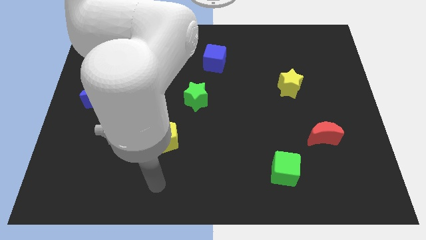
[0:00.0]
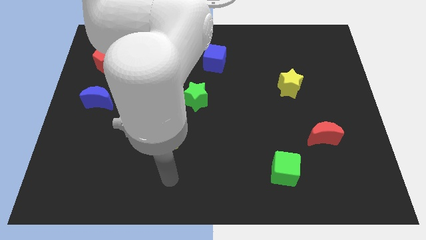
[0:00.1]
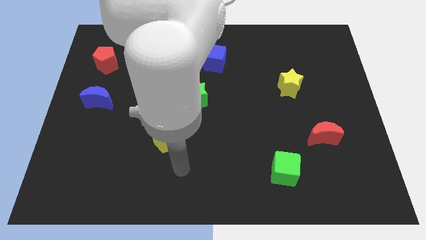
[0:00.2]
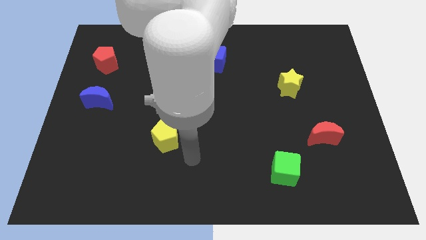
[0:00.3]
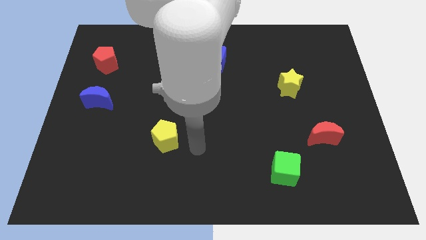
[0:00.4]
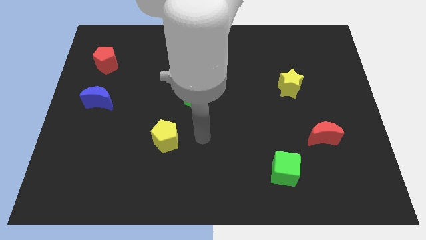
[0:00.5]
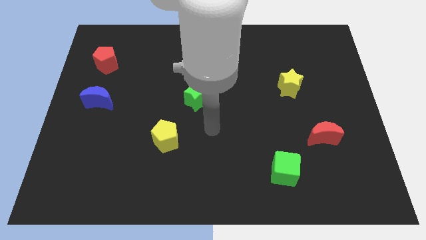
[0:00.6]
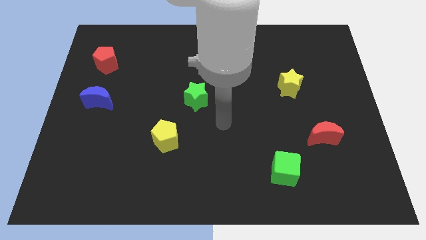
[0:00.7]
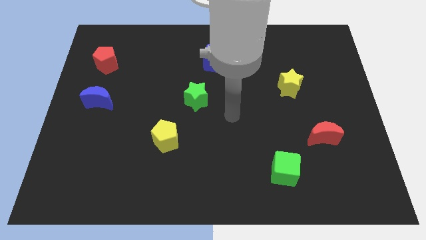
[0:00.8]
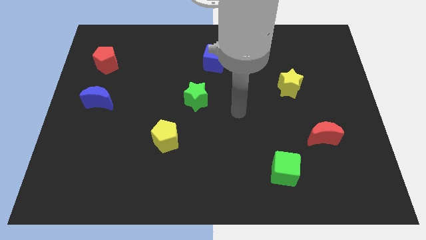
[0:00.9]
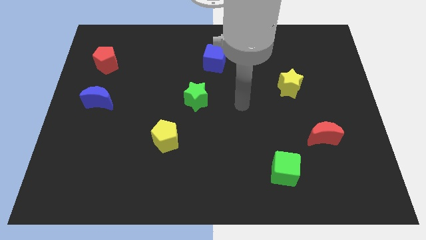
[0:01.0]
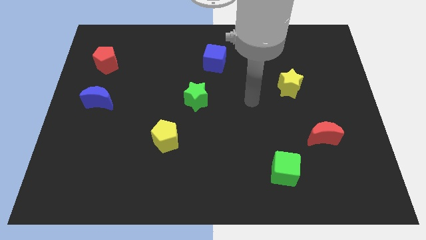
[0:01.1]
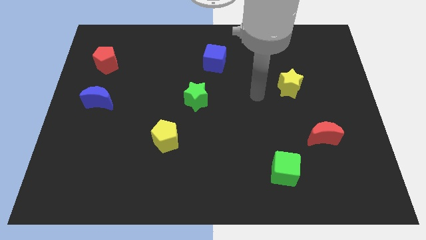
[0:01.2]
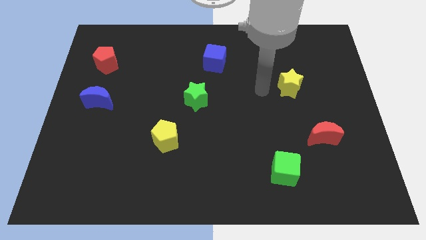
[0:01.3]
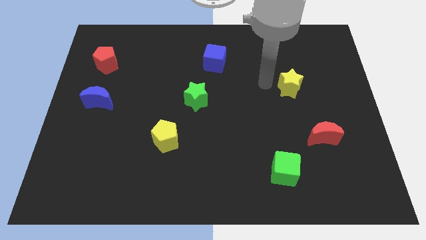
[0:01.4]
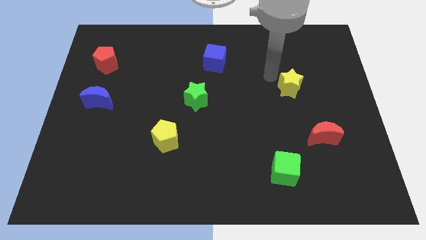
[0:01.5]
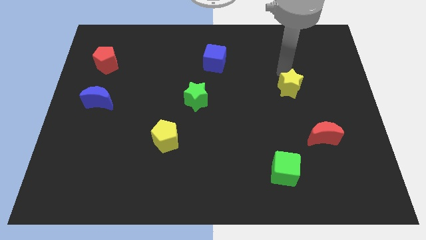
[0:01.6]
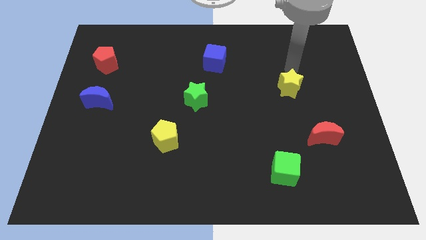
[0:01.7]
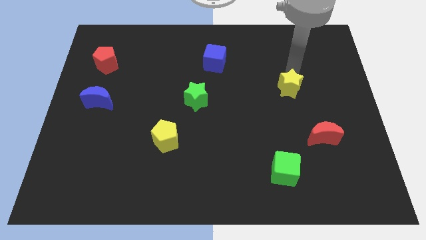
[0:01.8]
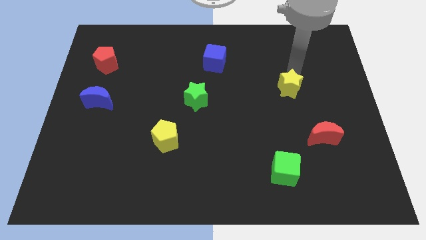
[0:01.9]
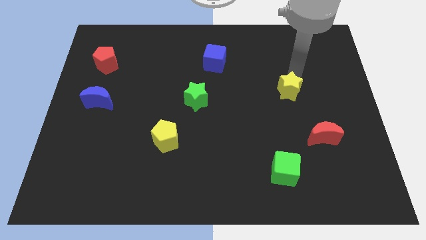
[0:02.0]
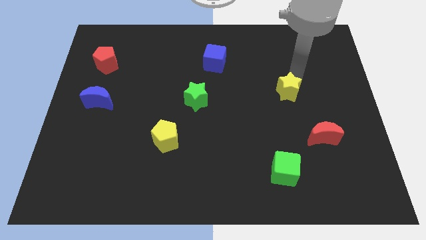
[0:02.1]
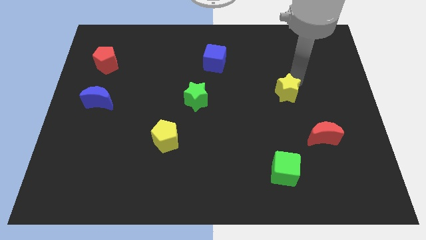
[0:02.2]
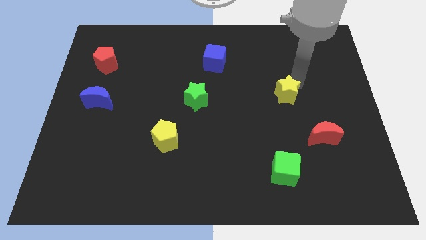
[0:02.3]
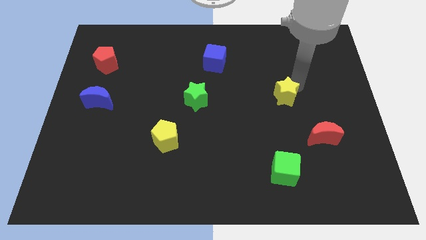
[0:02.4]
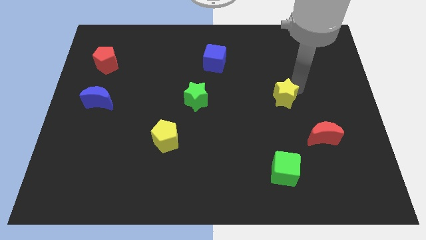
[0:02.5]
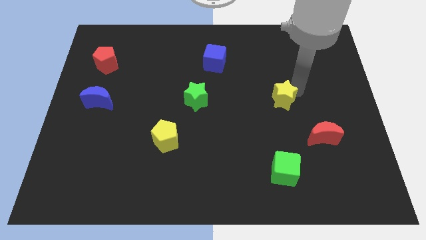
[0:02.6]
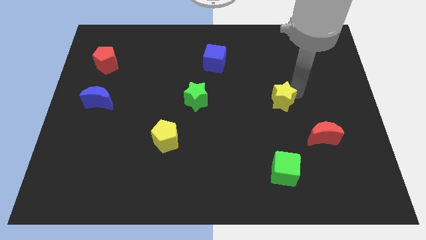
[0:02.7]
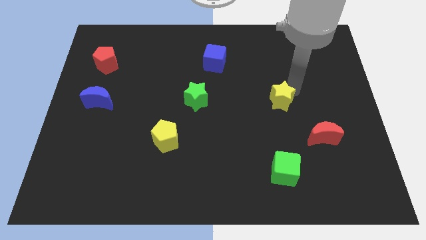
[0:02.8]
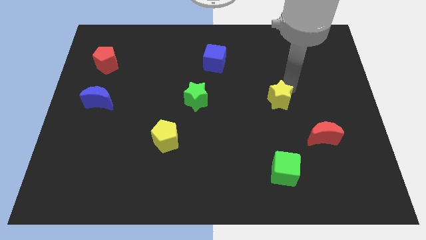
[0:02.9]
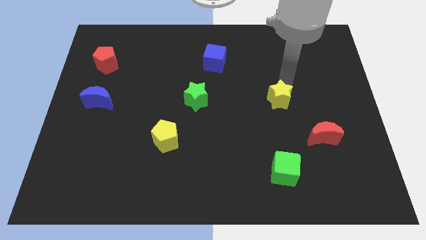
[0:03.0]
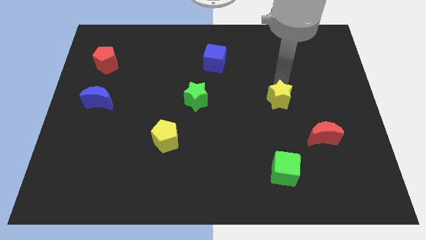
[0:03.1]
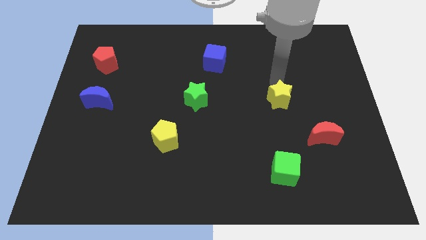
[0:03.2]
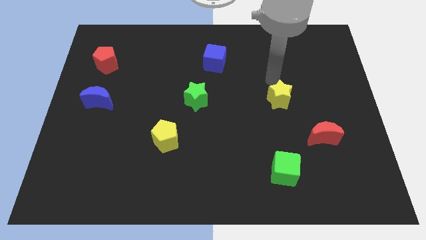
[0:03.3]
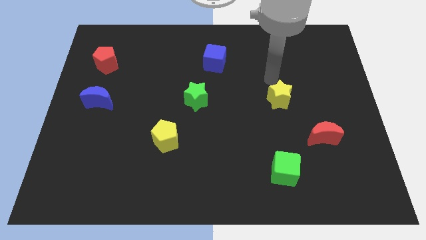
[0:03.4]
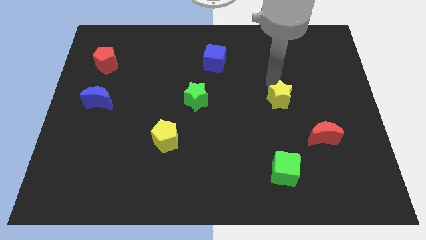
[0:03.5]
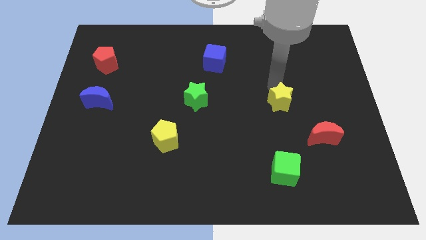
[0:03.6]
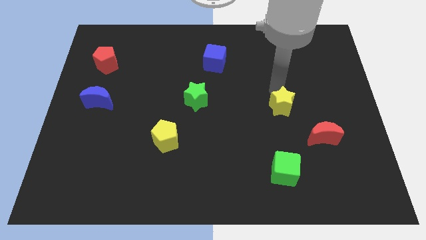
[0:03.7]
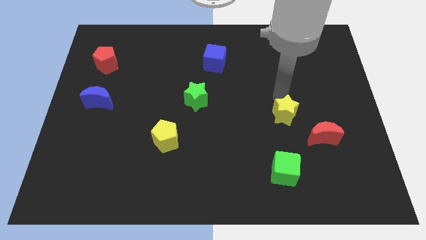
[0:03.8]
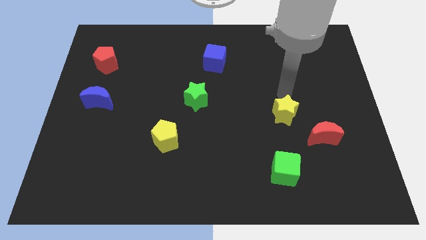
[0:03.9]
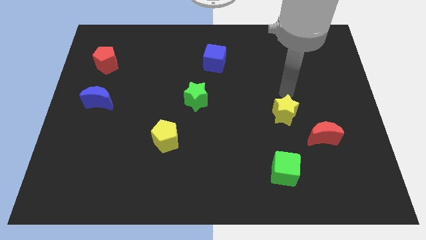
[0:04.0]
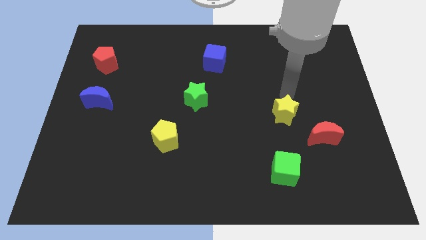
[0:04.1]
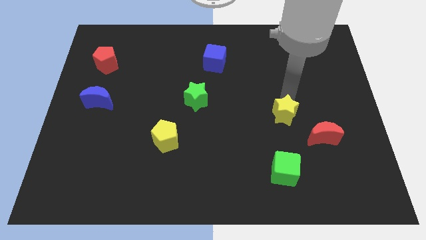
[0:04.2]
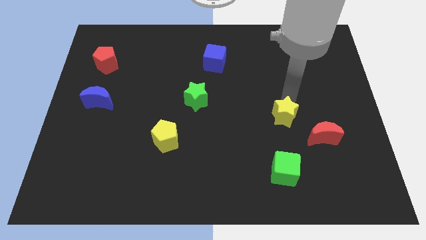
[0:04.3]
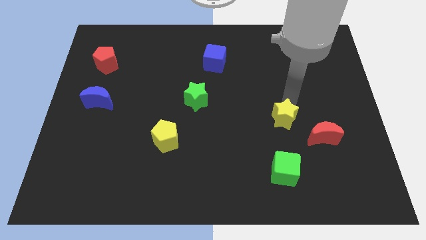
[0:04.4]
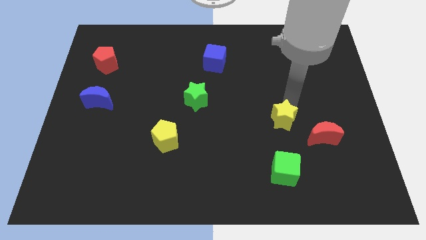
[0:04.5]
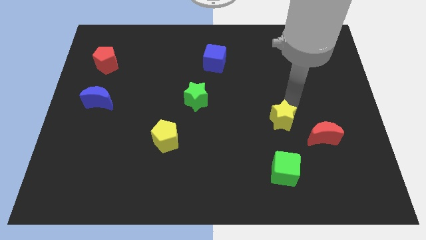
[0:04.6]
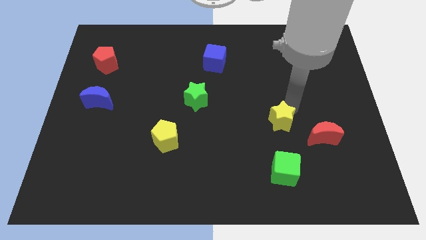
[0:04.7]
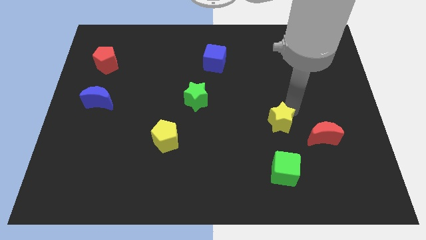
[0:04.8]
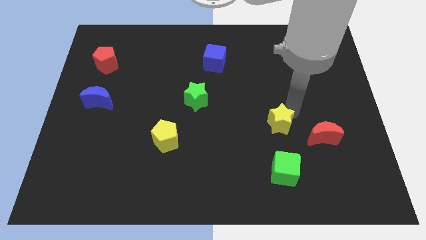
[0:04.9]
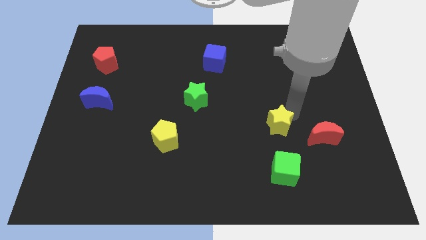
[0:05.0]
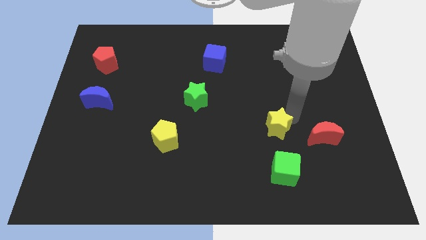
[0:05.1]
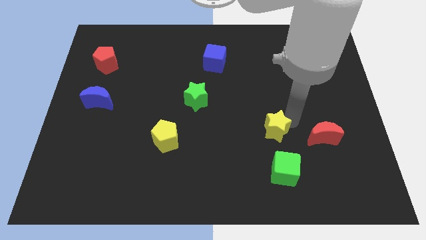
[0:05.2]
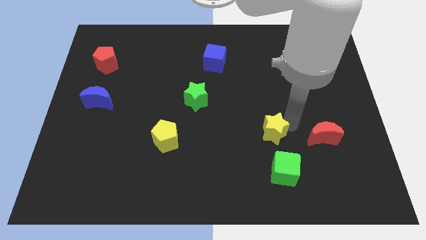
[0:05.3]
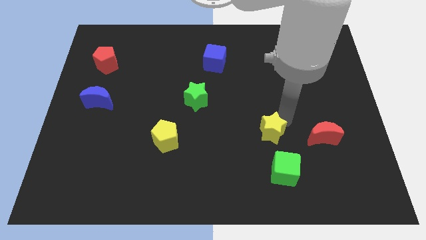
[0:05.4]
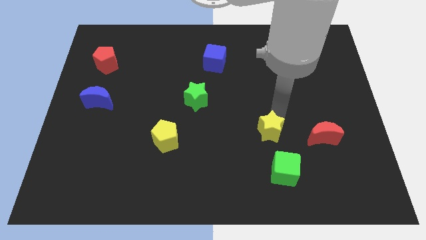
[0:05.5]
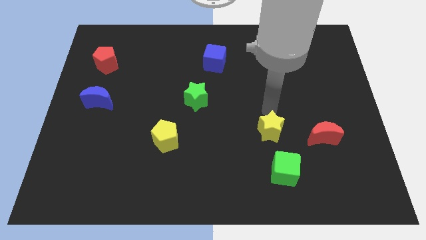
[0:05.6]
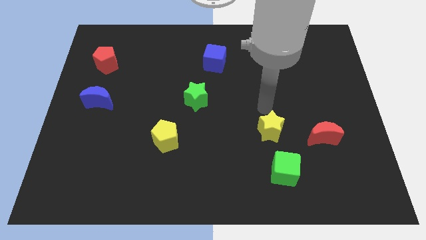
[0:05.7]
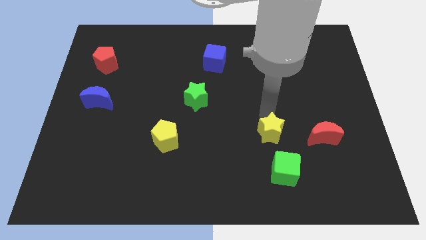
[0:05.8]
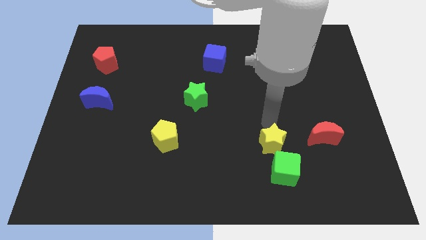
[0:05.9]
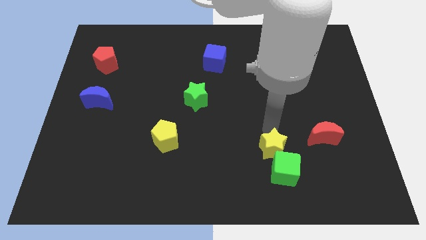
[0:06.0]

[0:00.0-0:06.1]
push the yellow star next to the green cube

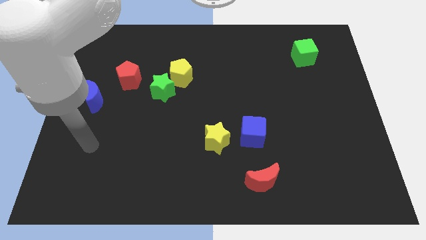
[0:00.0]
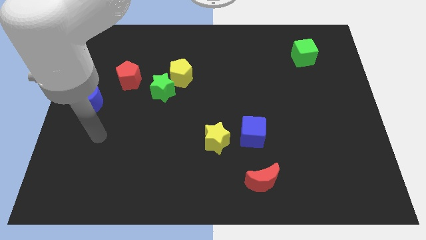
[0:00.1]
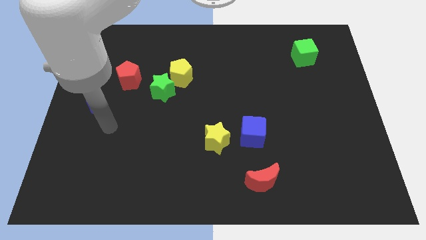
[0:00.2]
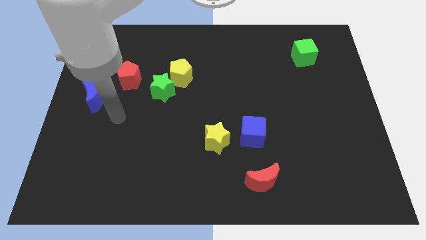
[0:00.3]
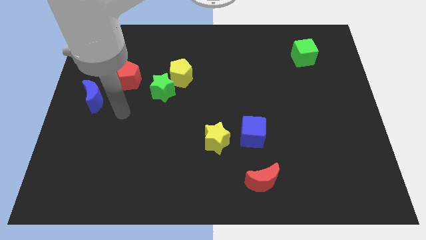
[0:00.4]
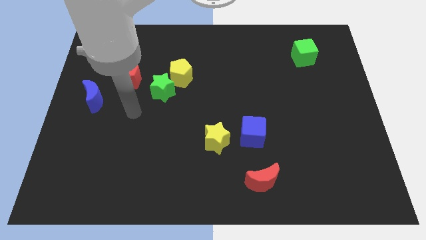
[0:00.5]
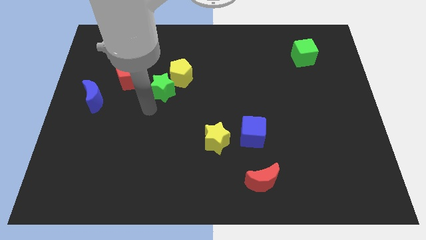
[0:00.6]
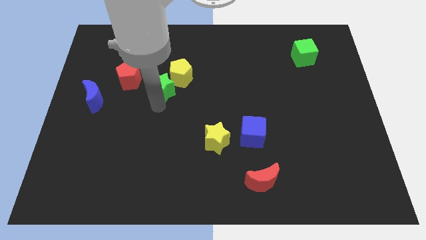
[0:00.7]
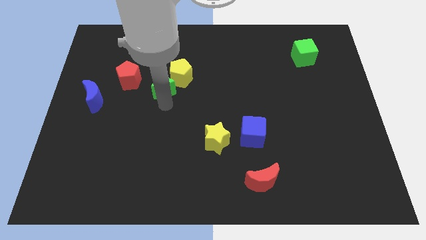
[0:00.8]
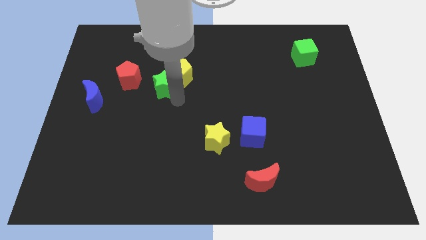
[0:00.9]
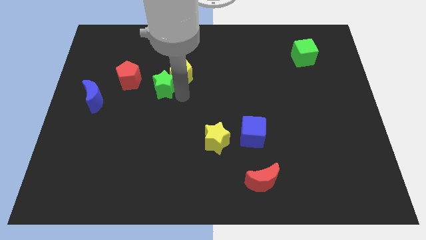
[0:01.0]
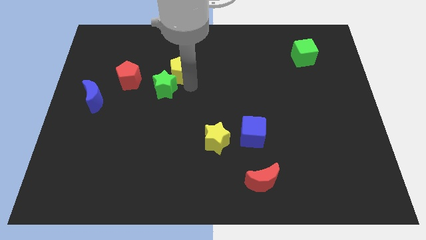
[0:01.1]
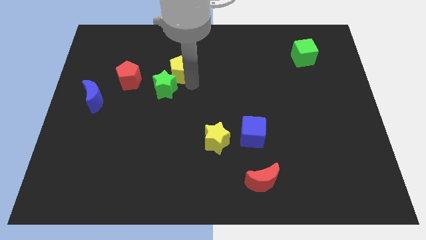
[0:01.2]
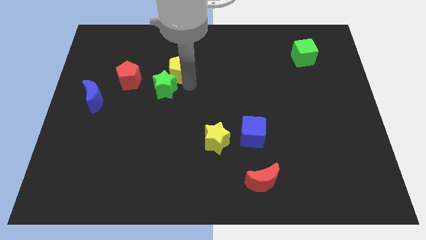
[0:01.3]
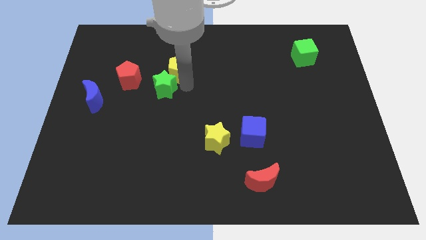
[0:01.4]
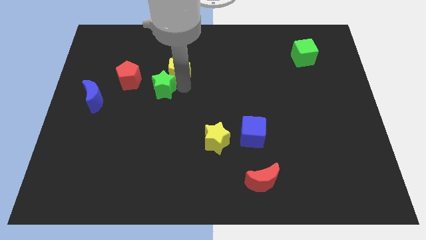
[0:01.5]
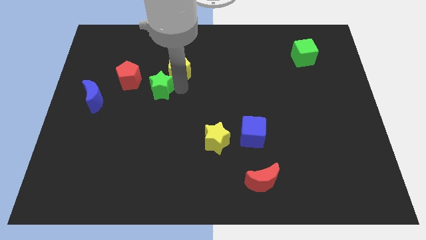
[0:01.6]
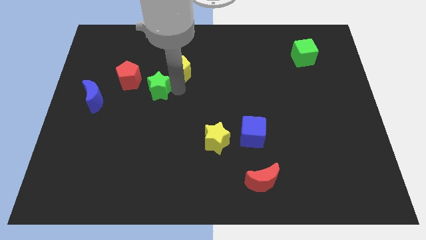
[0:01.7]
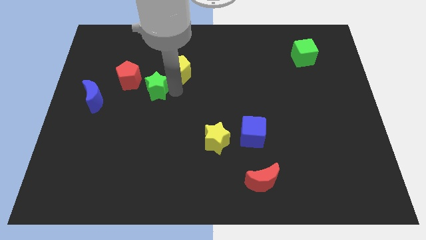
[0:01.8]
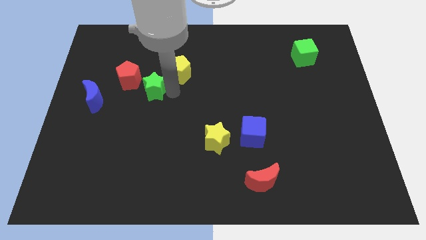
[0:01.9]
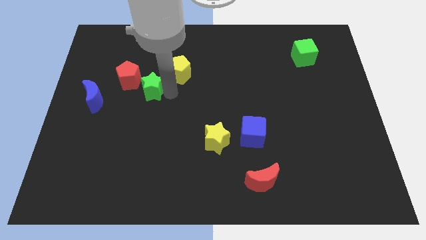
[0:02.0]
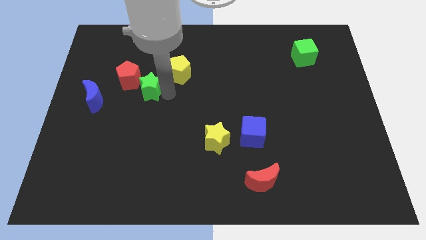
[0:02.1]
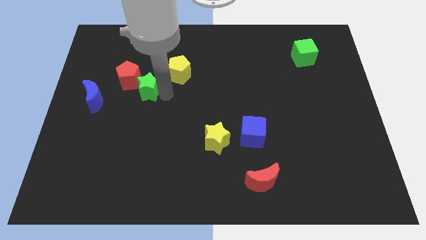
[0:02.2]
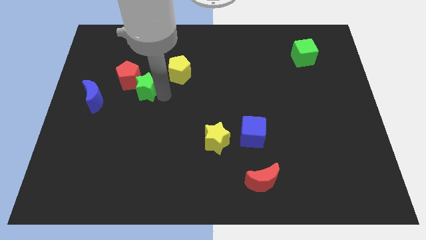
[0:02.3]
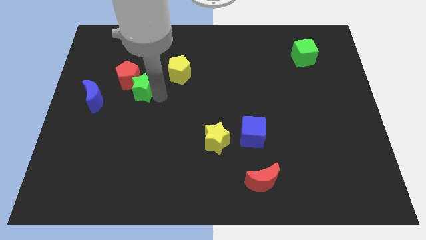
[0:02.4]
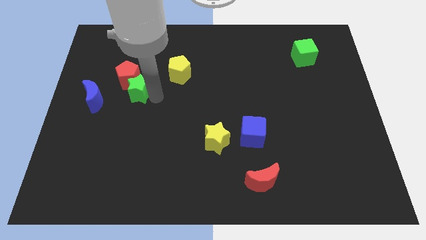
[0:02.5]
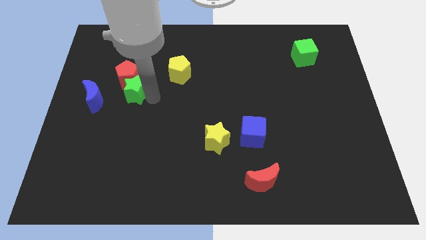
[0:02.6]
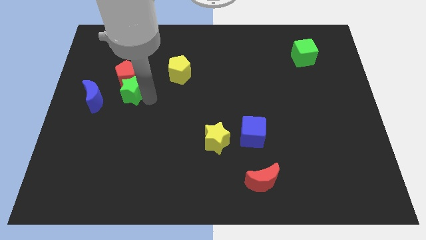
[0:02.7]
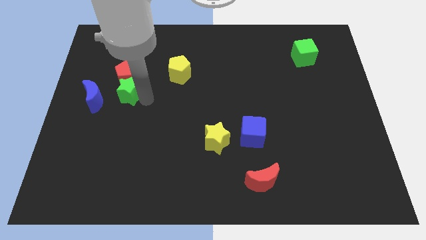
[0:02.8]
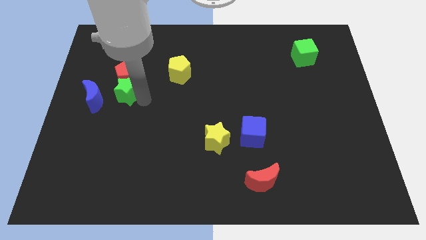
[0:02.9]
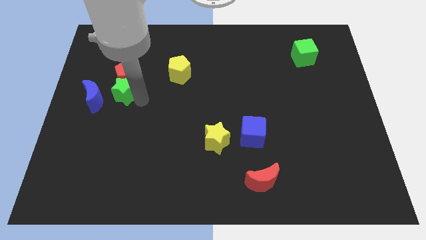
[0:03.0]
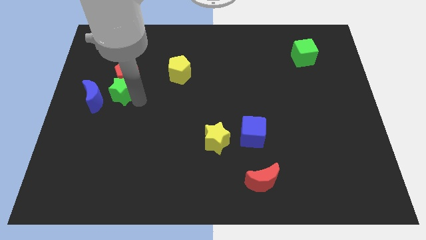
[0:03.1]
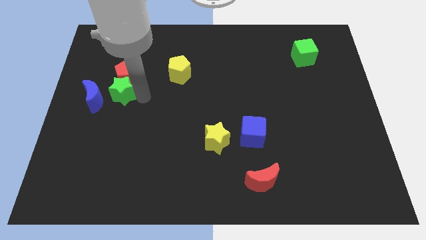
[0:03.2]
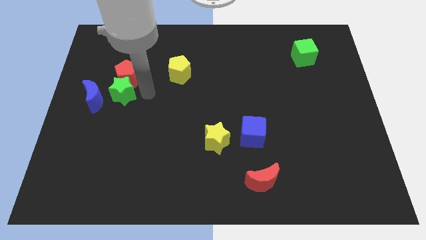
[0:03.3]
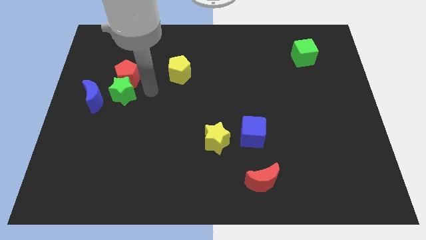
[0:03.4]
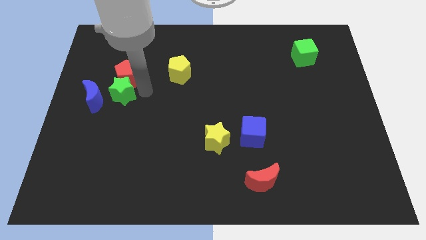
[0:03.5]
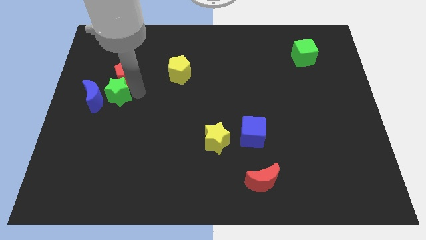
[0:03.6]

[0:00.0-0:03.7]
slide the green star close to the blue moon
